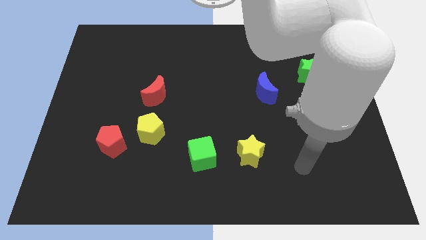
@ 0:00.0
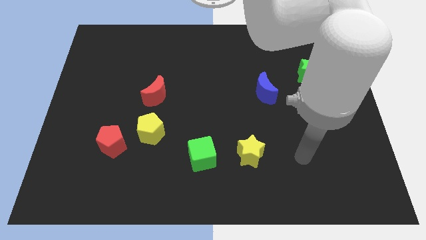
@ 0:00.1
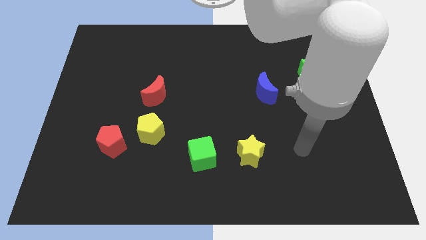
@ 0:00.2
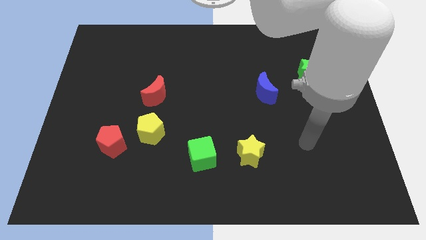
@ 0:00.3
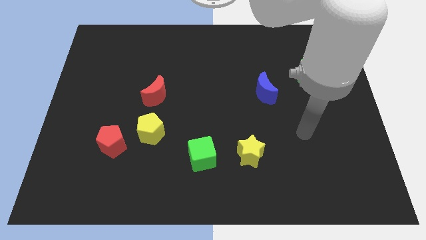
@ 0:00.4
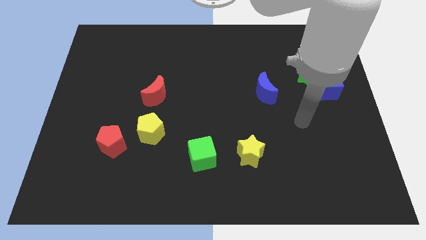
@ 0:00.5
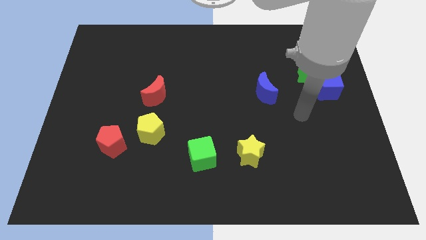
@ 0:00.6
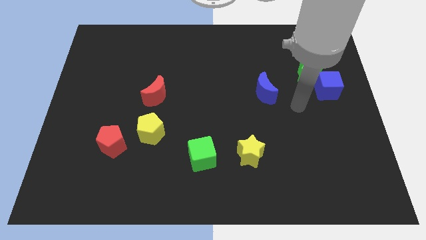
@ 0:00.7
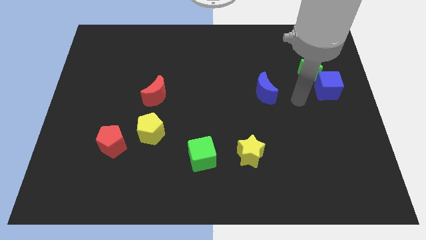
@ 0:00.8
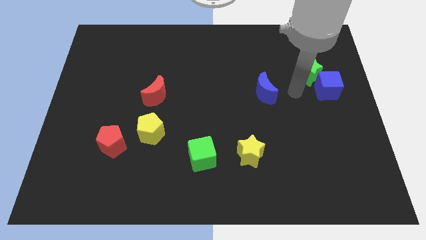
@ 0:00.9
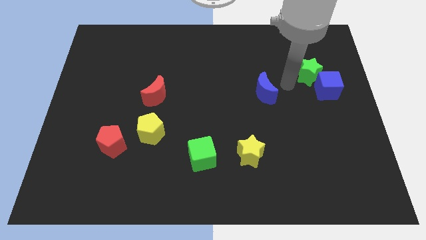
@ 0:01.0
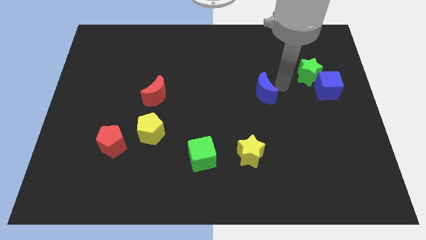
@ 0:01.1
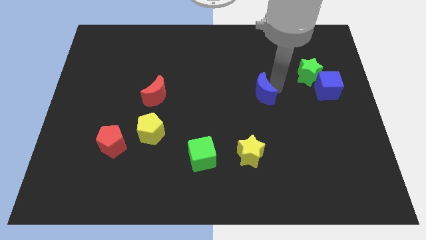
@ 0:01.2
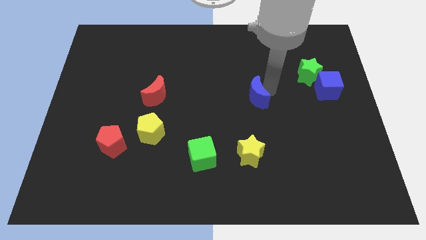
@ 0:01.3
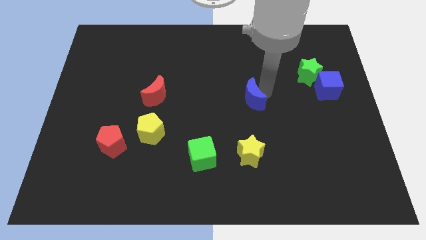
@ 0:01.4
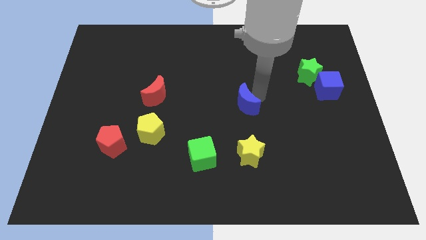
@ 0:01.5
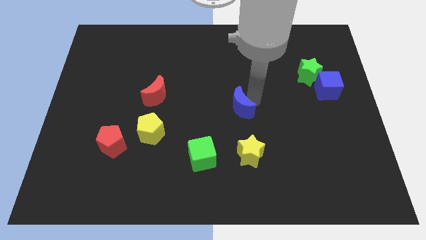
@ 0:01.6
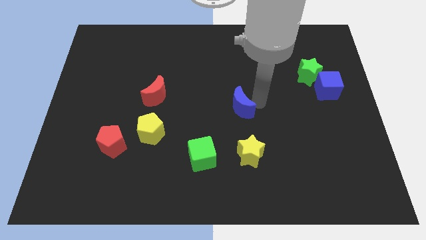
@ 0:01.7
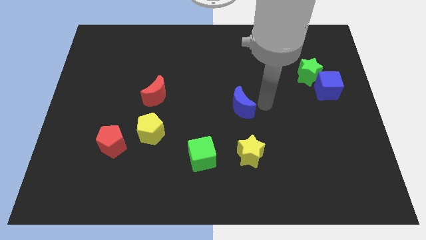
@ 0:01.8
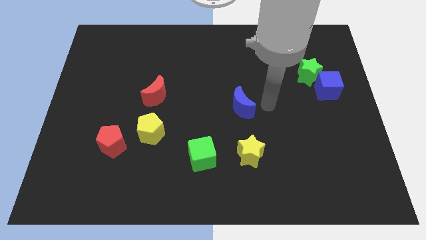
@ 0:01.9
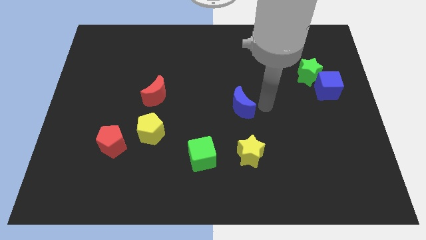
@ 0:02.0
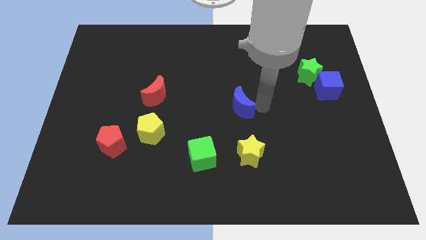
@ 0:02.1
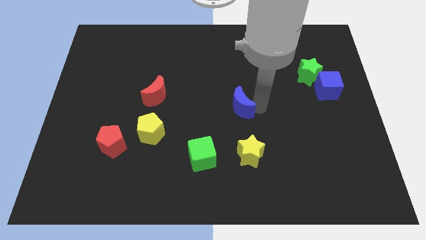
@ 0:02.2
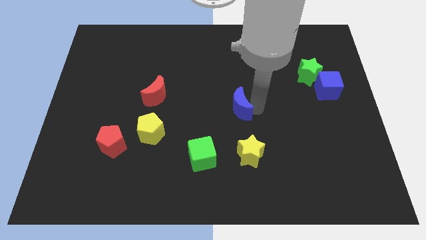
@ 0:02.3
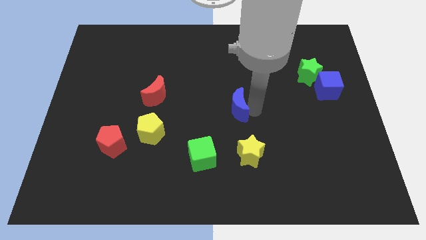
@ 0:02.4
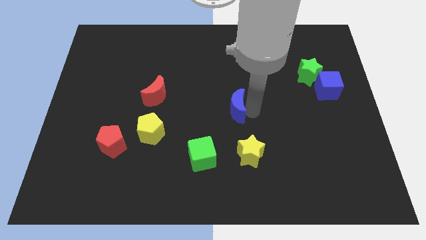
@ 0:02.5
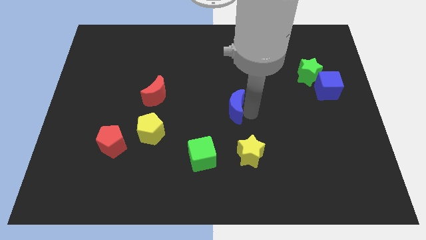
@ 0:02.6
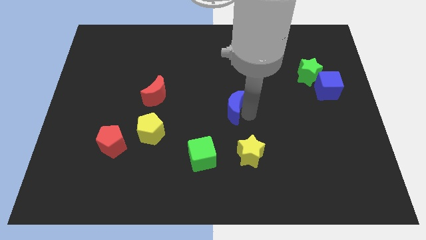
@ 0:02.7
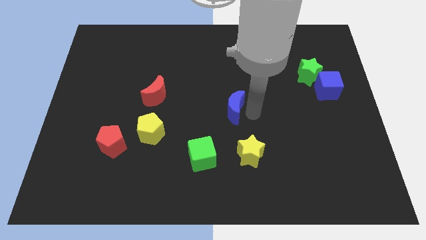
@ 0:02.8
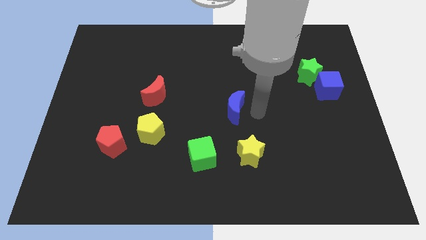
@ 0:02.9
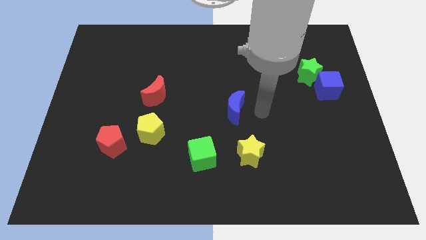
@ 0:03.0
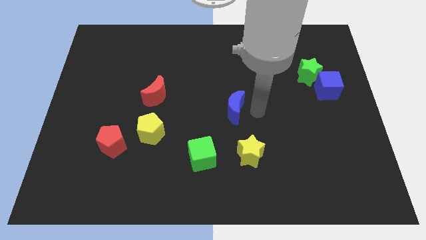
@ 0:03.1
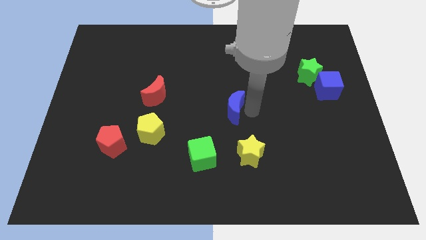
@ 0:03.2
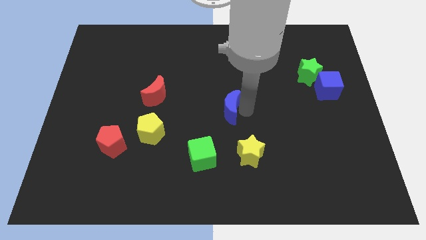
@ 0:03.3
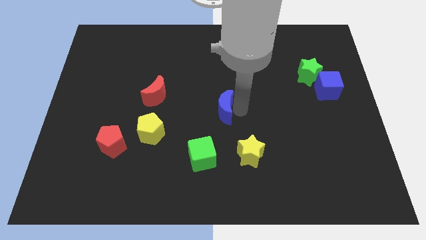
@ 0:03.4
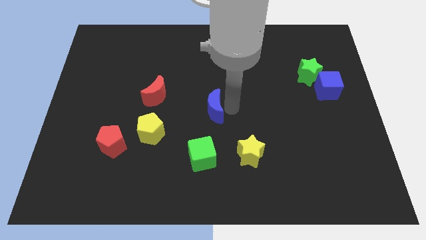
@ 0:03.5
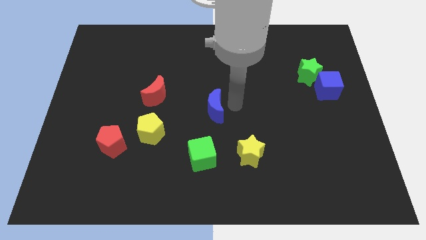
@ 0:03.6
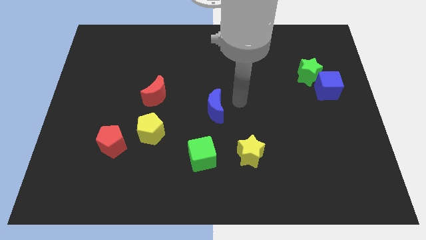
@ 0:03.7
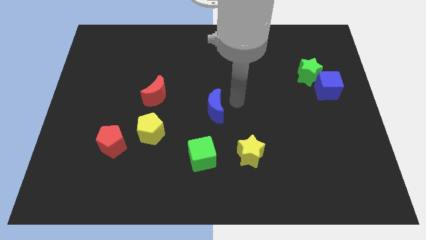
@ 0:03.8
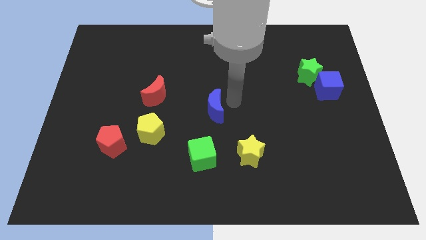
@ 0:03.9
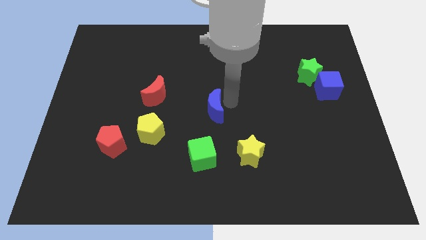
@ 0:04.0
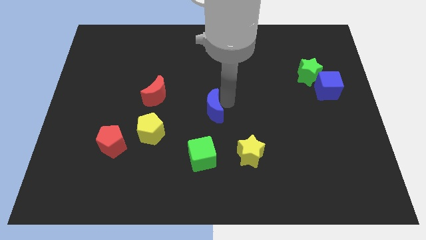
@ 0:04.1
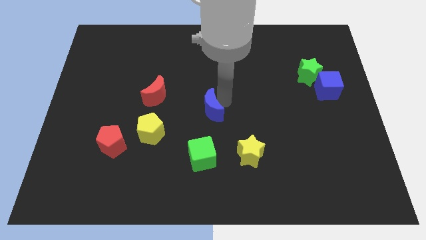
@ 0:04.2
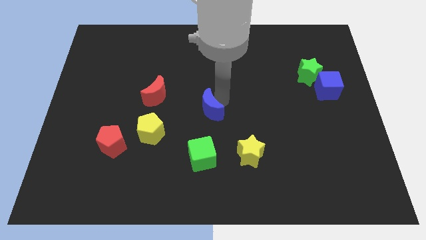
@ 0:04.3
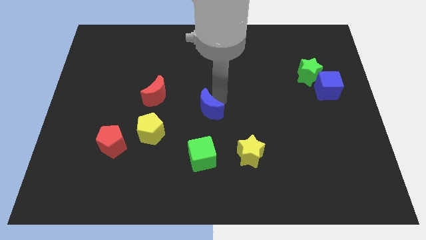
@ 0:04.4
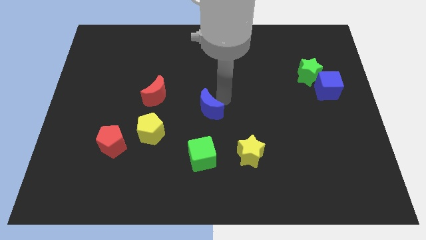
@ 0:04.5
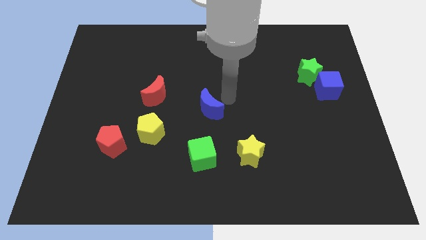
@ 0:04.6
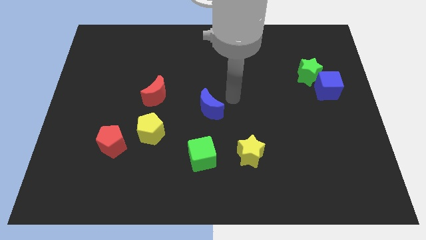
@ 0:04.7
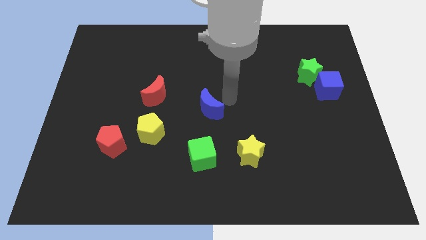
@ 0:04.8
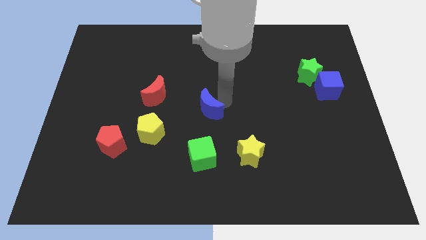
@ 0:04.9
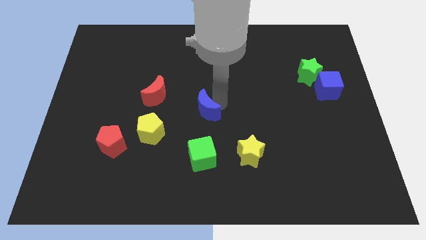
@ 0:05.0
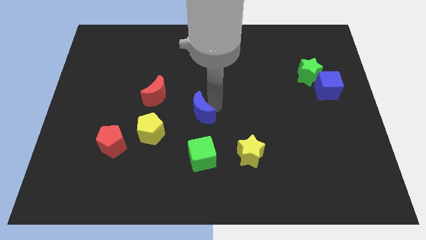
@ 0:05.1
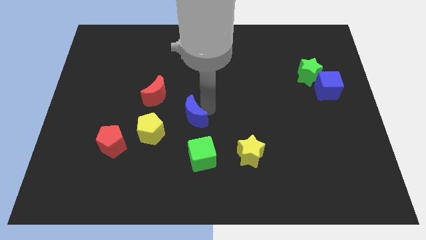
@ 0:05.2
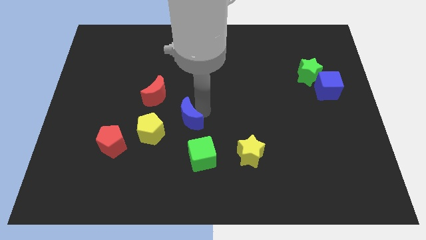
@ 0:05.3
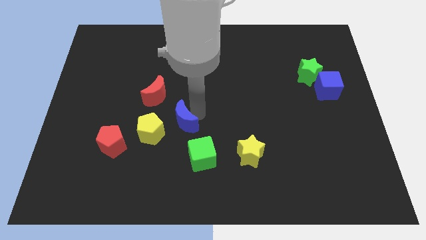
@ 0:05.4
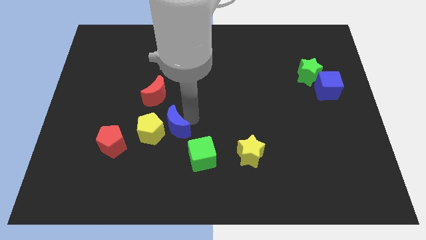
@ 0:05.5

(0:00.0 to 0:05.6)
slide the blue moon towards the yellow pentagon

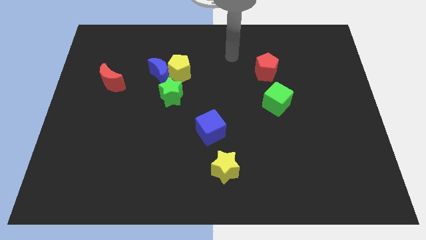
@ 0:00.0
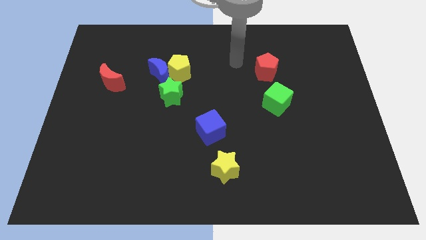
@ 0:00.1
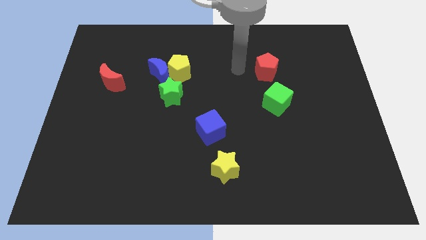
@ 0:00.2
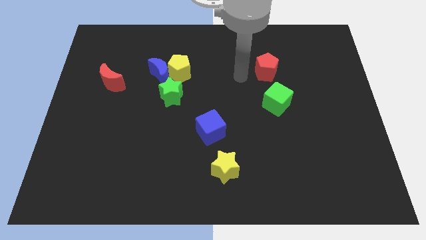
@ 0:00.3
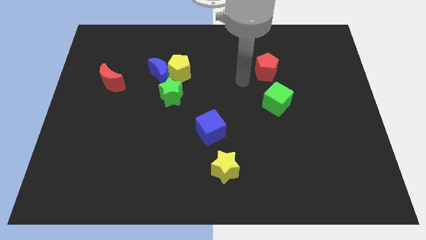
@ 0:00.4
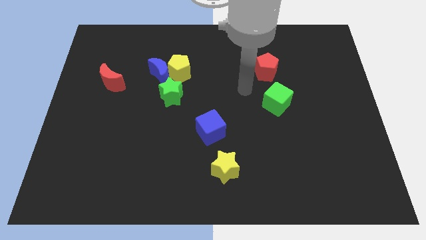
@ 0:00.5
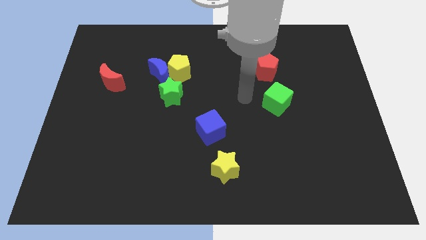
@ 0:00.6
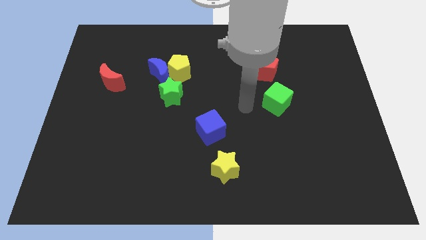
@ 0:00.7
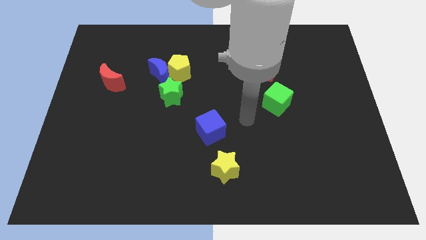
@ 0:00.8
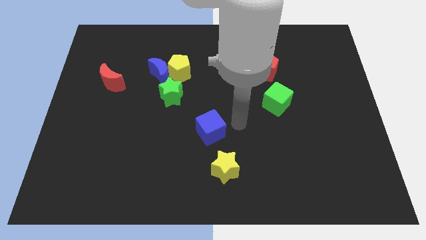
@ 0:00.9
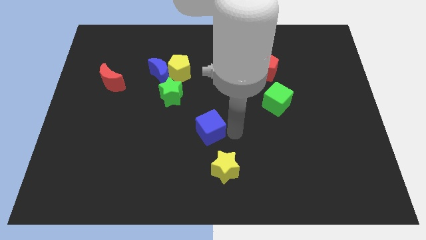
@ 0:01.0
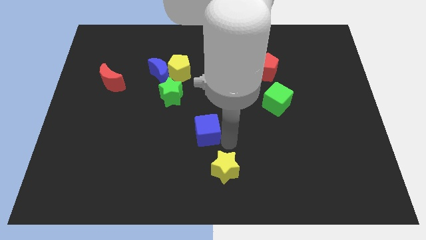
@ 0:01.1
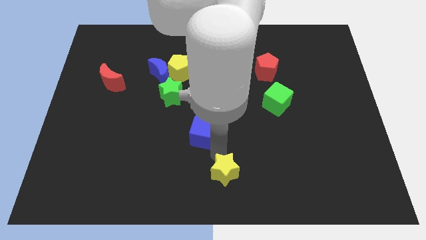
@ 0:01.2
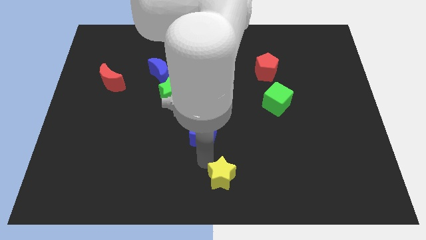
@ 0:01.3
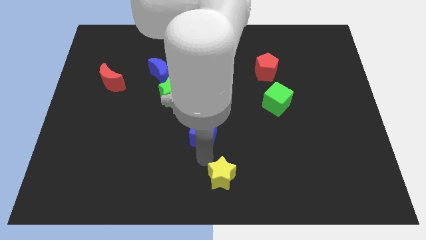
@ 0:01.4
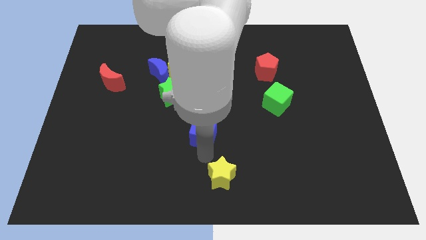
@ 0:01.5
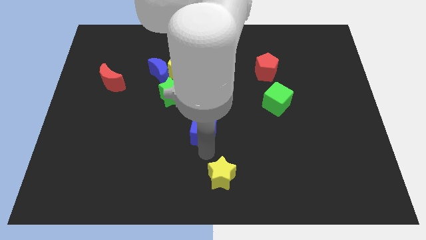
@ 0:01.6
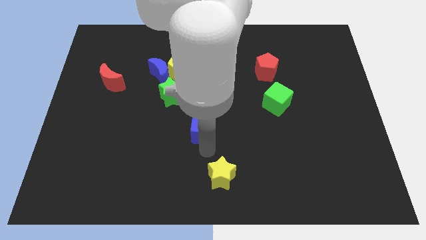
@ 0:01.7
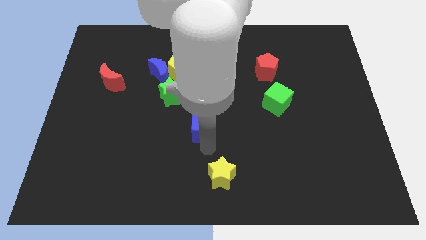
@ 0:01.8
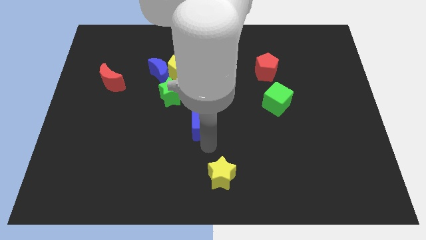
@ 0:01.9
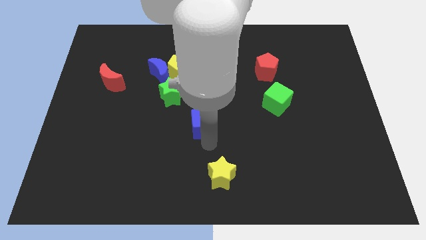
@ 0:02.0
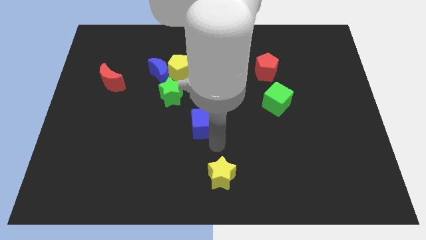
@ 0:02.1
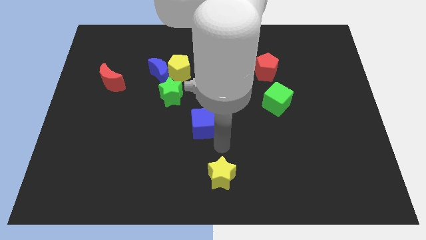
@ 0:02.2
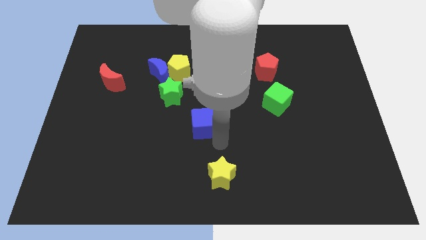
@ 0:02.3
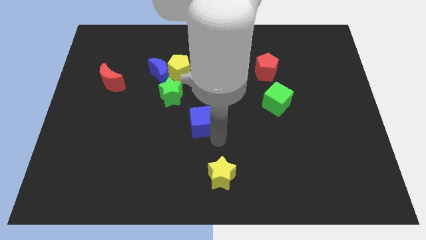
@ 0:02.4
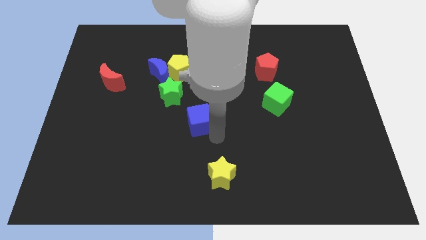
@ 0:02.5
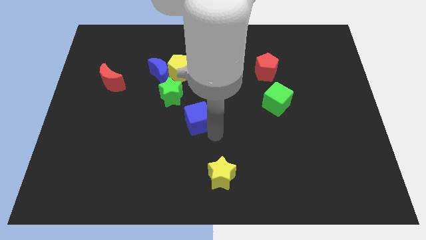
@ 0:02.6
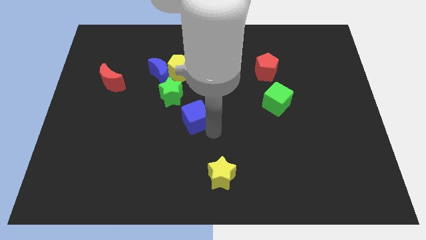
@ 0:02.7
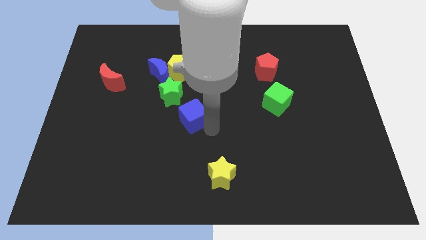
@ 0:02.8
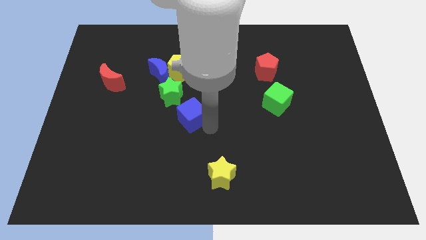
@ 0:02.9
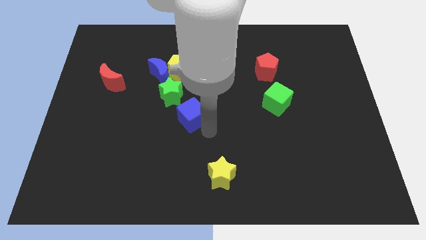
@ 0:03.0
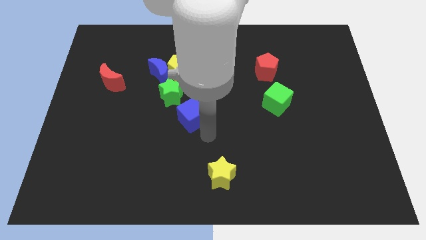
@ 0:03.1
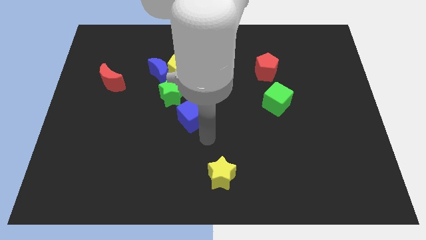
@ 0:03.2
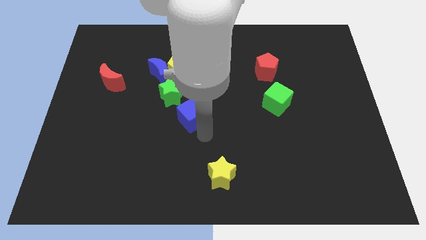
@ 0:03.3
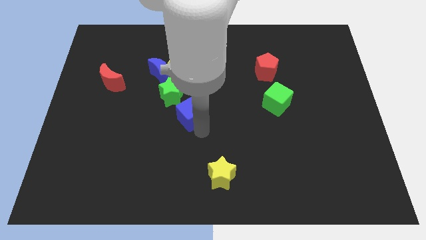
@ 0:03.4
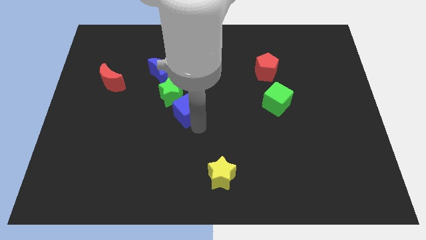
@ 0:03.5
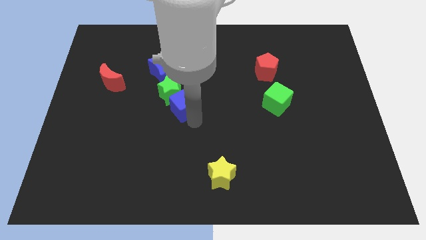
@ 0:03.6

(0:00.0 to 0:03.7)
push the blue cube to the green star
